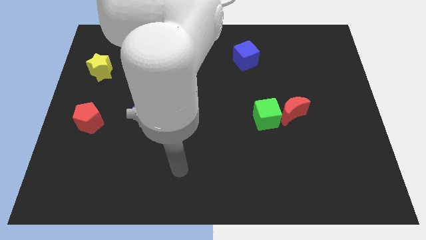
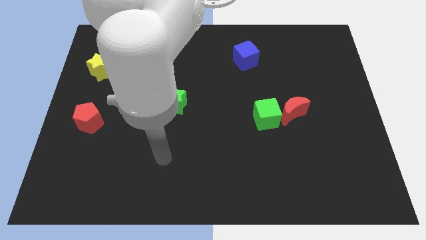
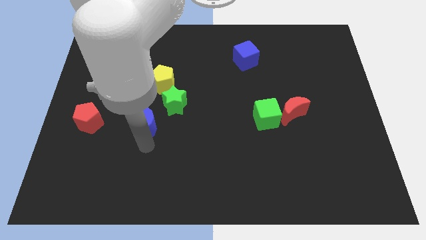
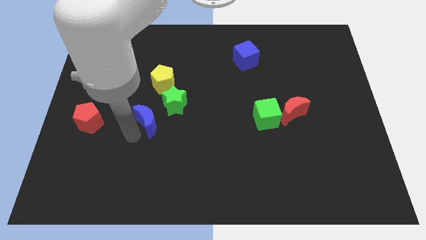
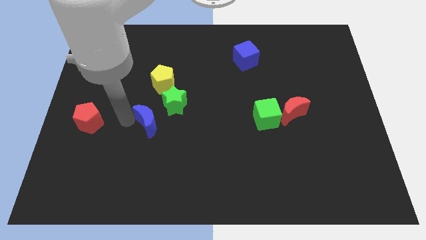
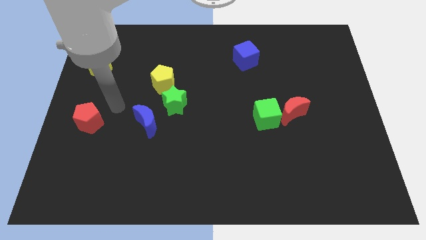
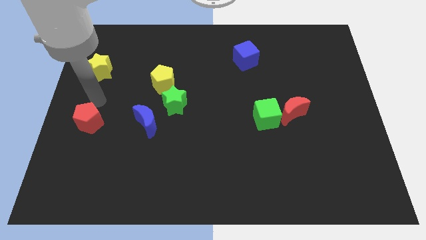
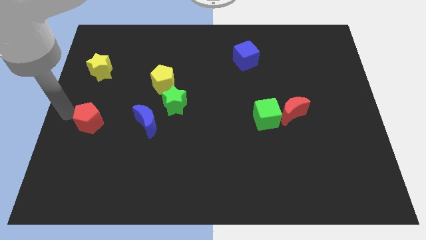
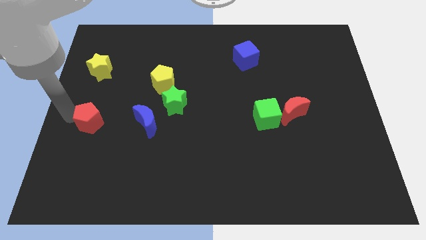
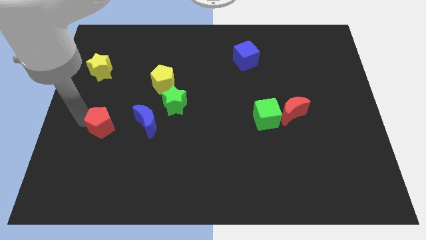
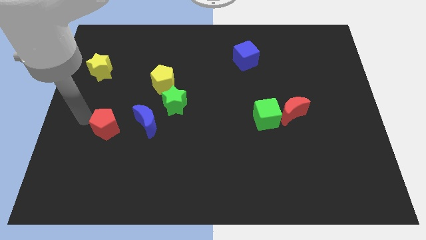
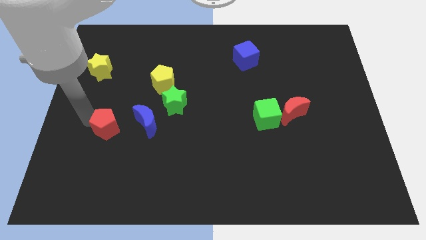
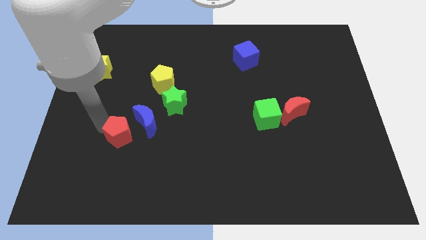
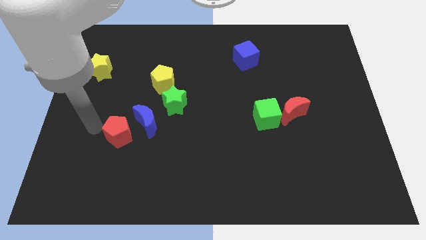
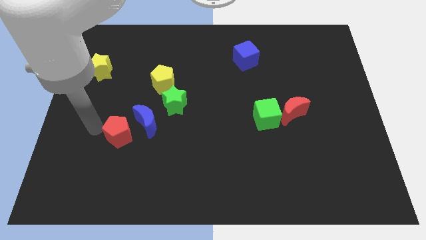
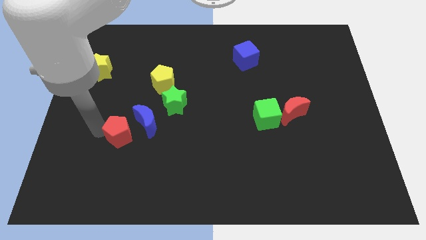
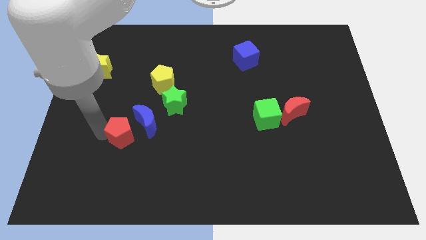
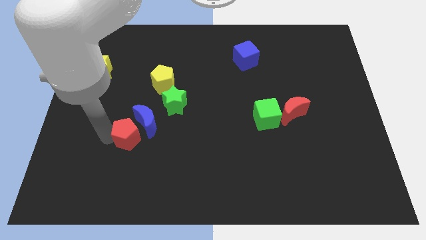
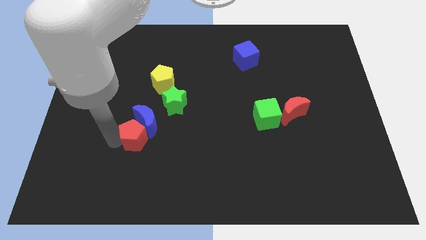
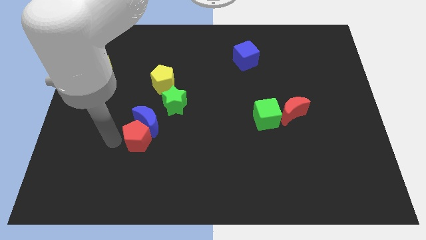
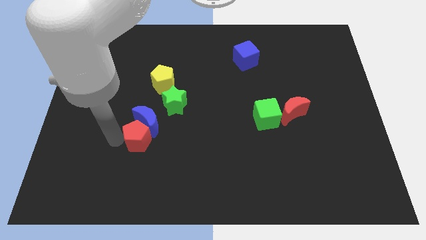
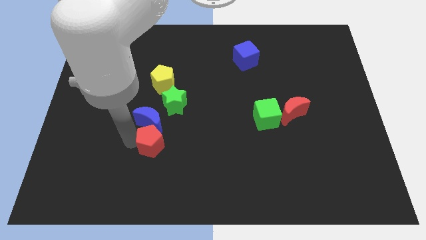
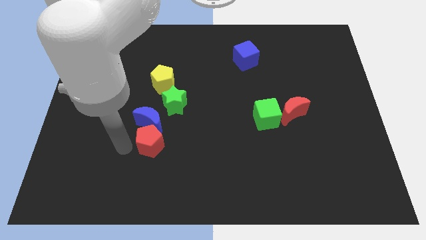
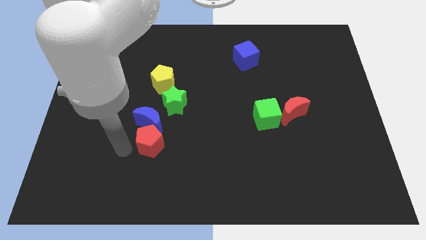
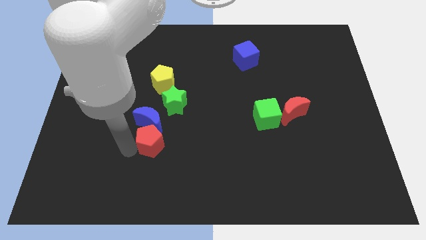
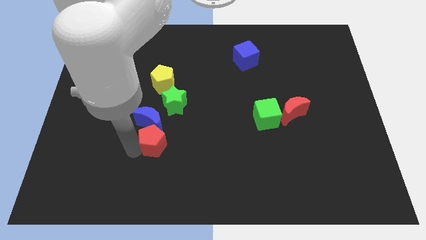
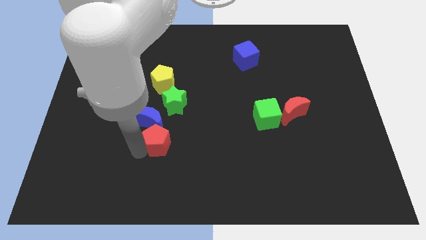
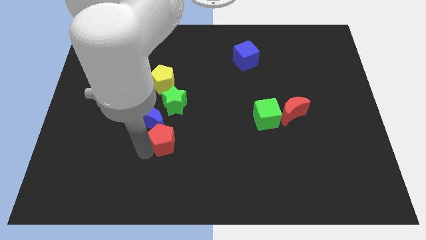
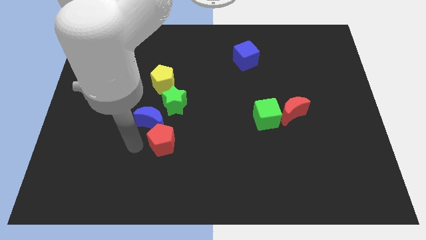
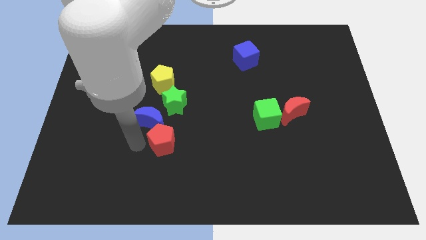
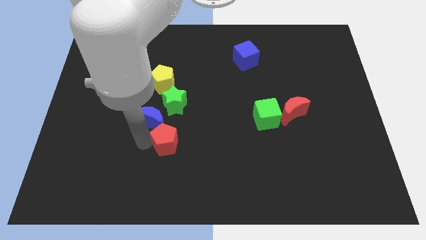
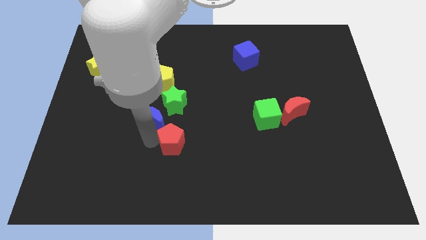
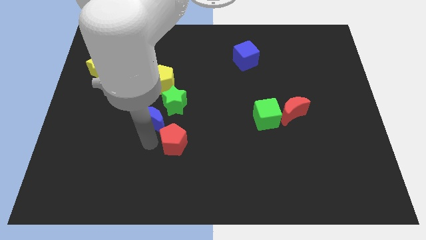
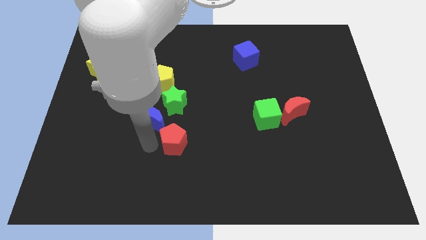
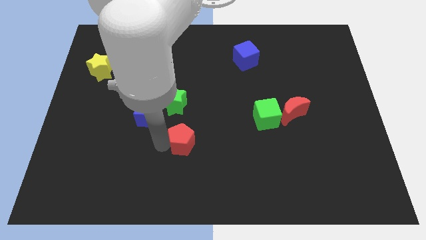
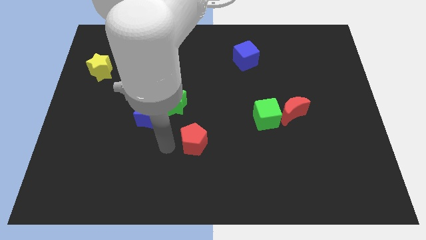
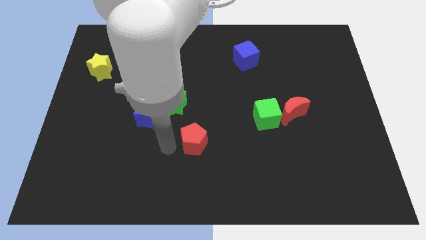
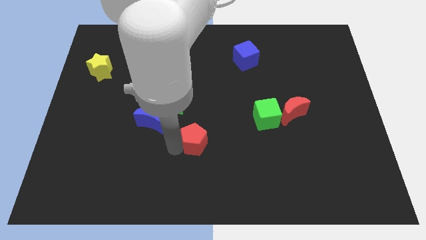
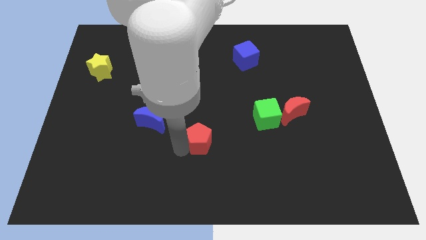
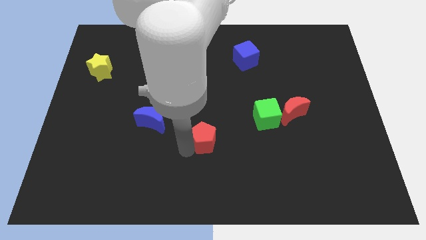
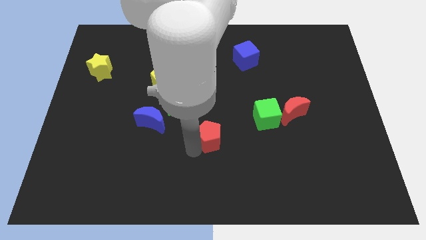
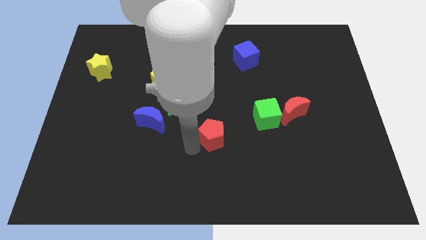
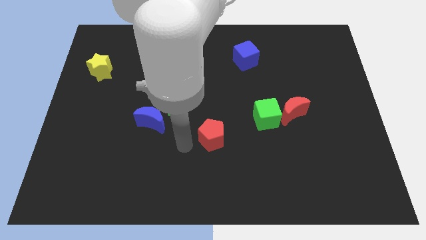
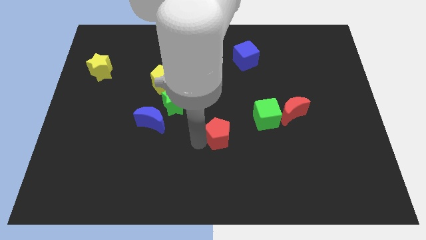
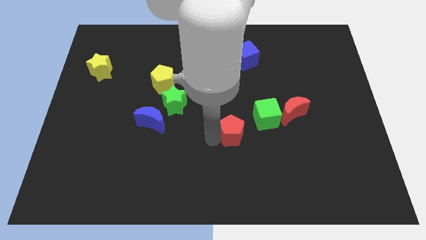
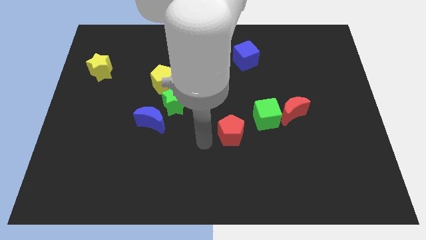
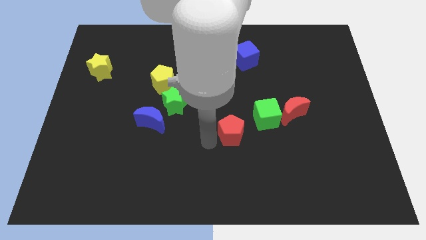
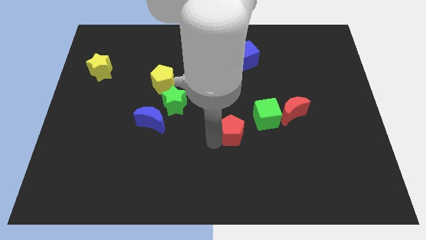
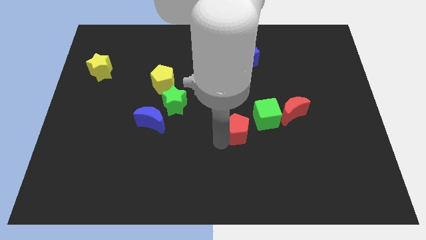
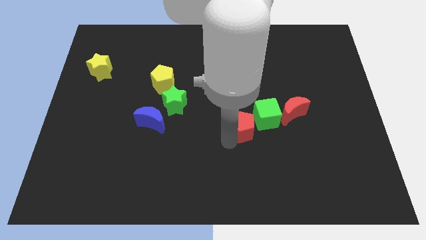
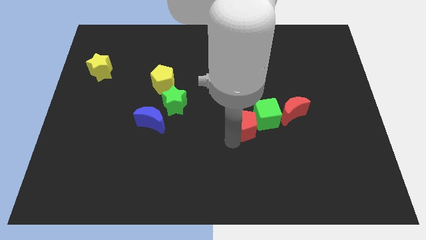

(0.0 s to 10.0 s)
slide the red pentagon towards the green cube

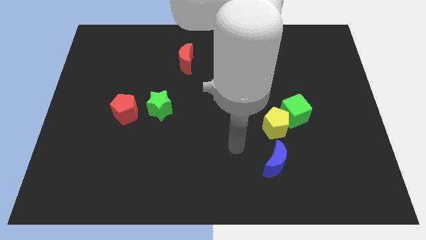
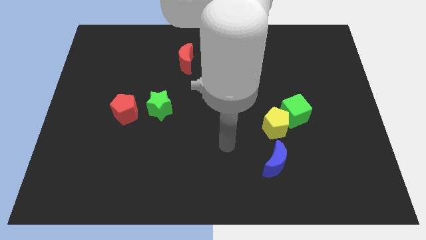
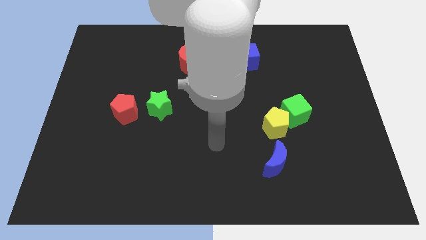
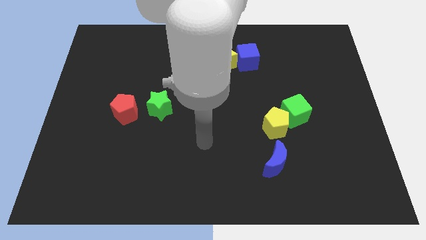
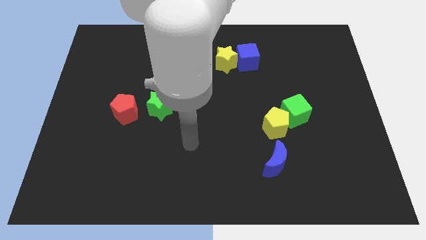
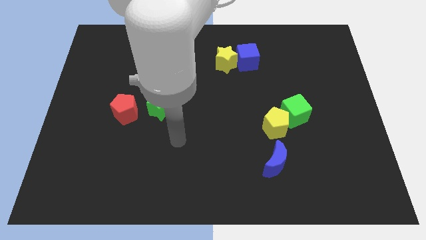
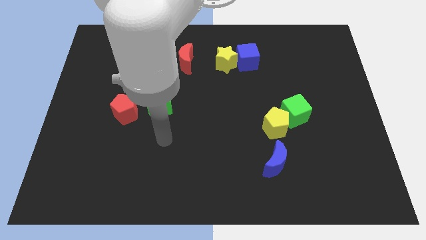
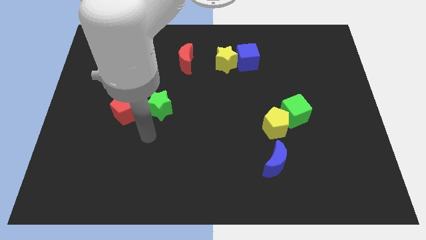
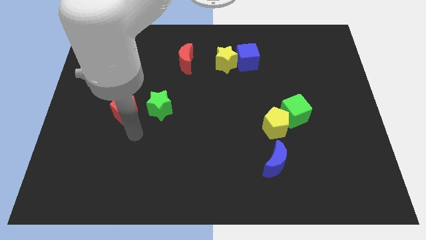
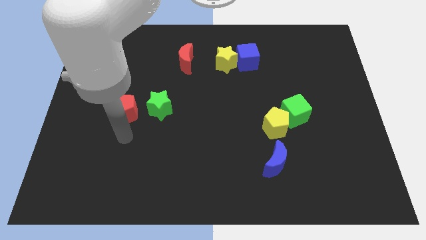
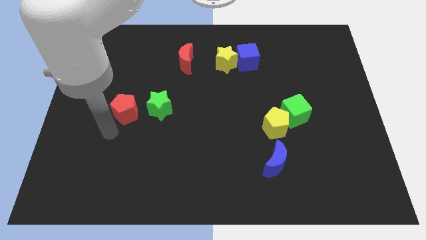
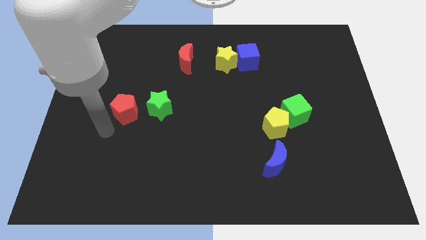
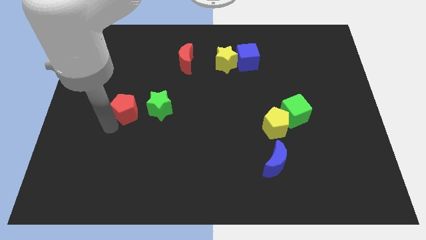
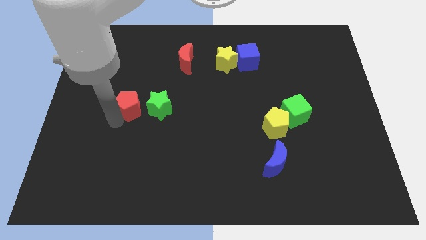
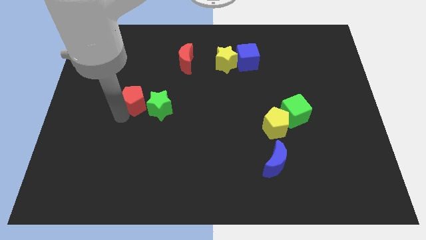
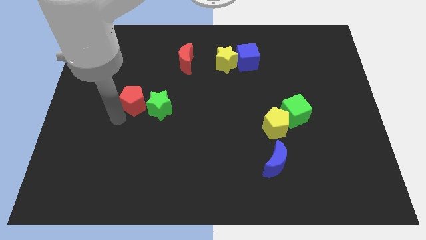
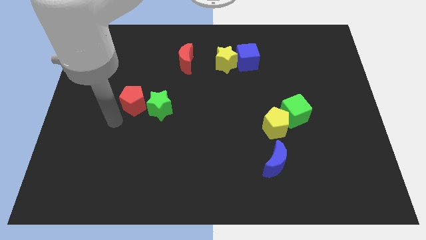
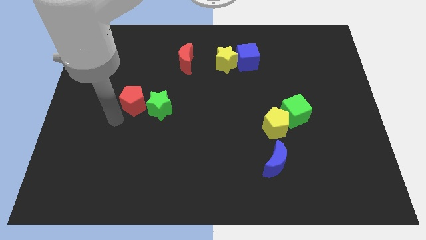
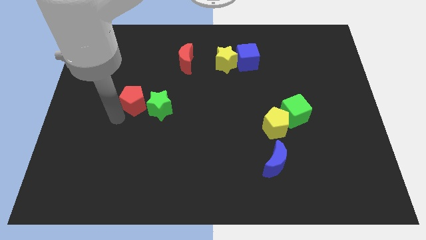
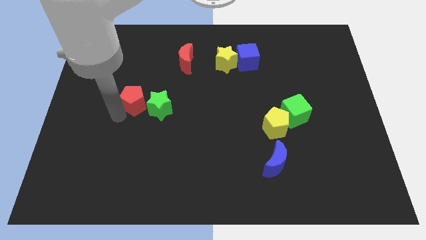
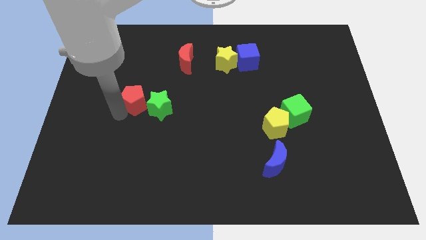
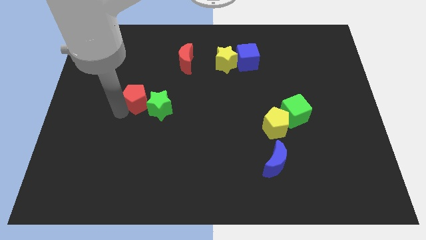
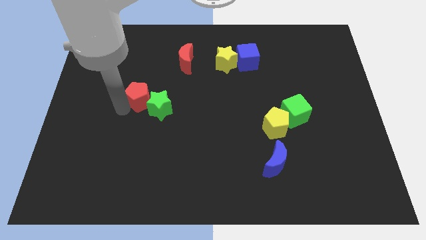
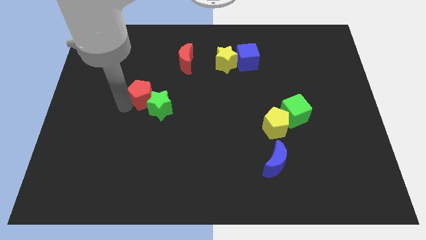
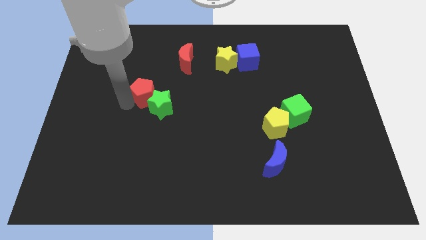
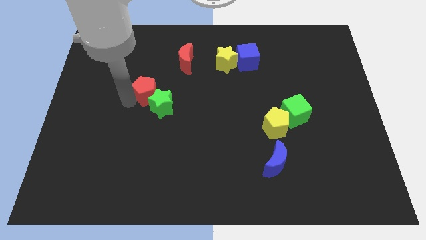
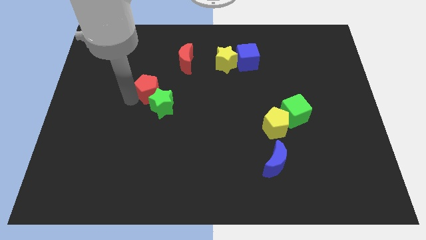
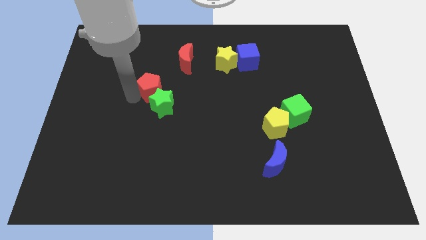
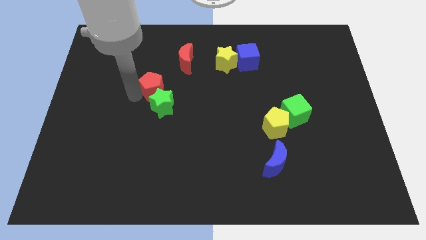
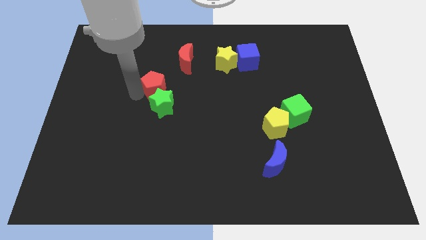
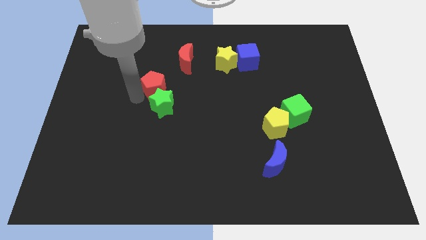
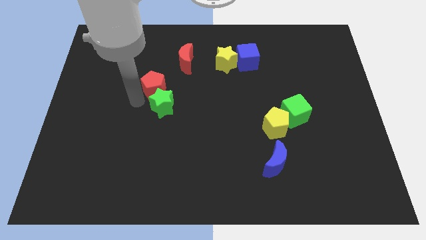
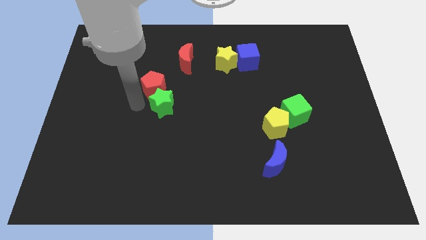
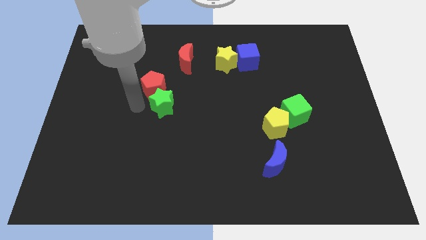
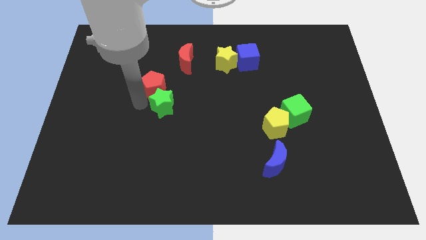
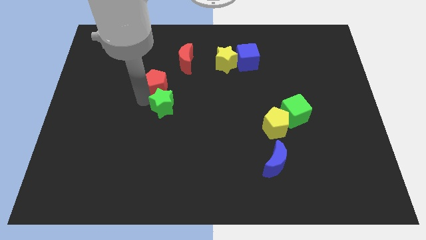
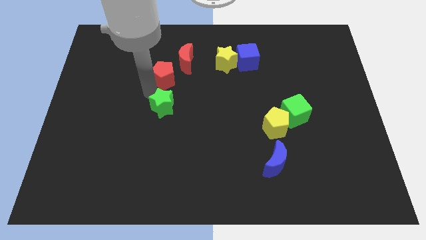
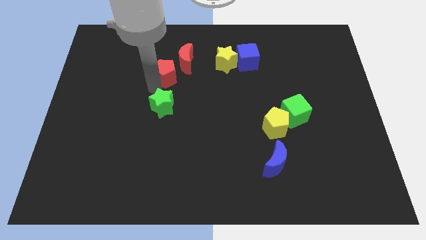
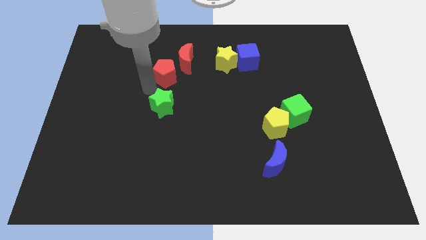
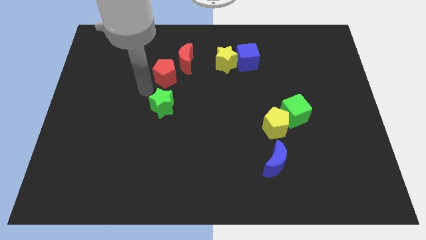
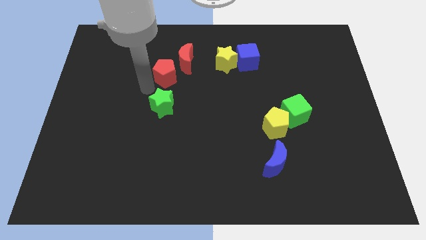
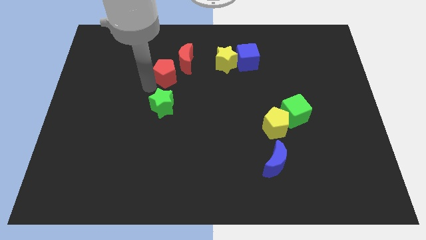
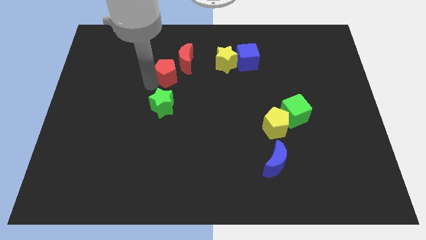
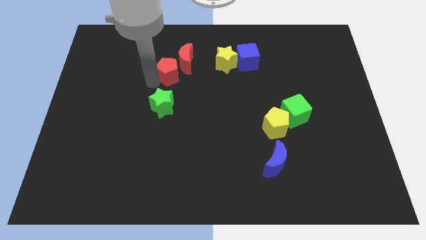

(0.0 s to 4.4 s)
slide the red pentagon towards the red moon
